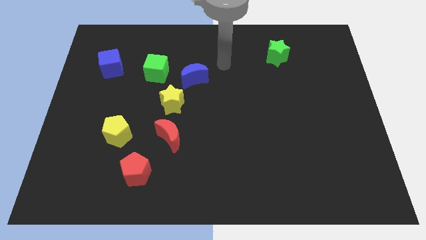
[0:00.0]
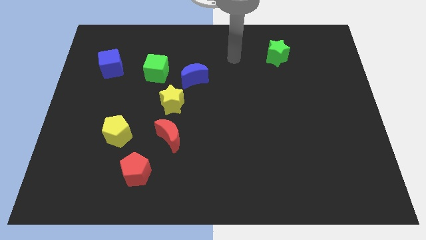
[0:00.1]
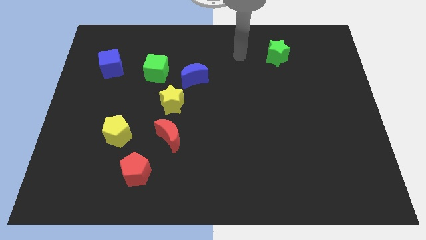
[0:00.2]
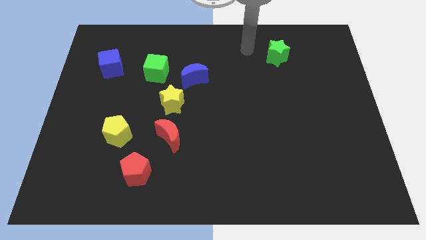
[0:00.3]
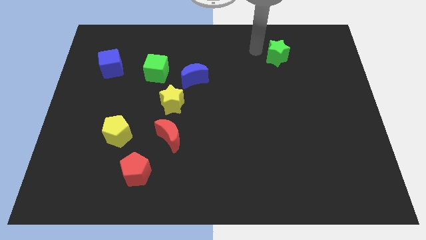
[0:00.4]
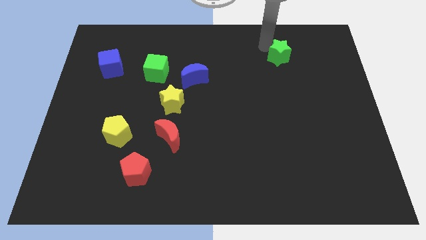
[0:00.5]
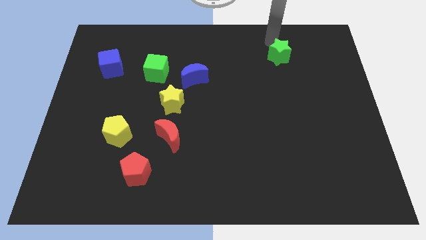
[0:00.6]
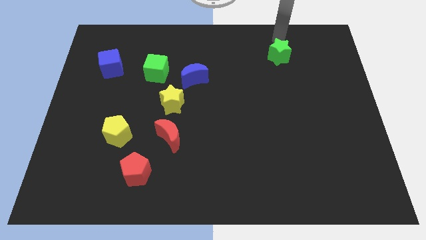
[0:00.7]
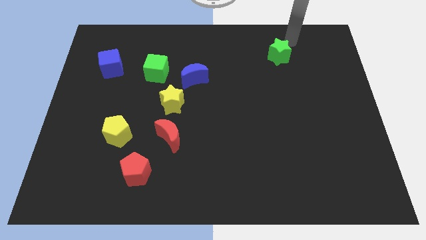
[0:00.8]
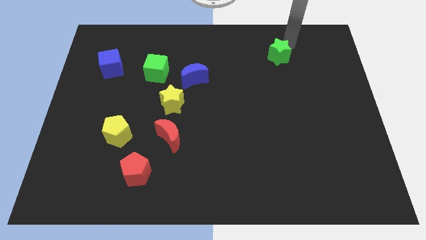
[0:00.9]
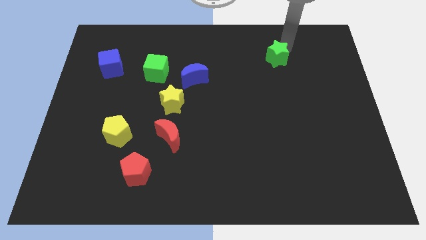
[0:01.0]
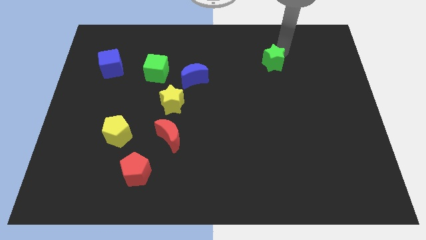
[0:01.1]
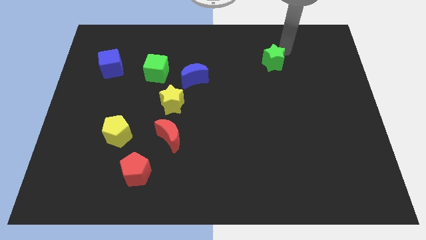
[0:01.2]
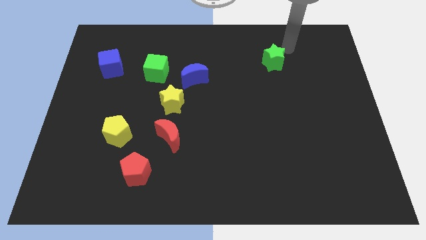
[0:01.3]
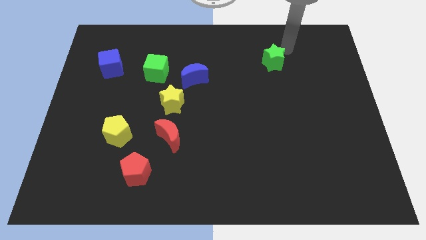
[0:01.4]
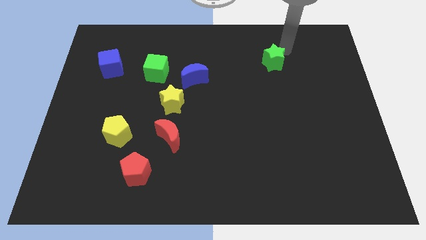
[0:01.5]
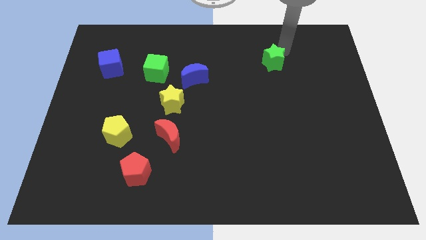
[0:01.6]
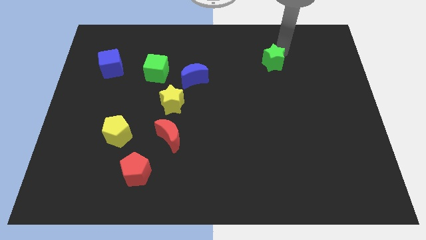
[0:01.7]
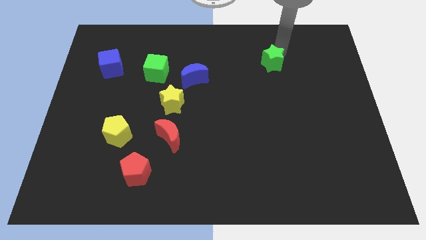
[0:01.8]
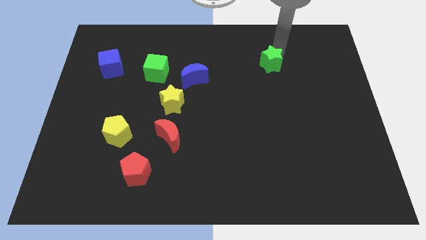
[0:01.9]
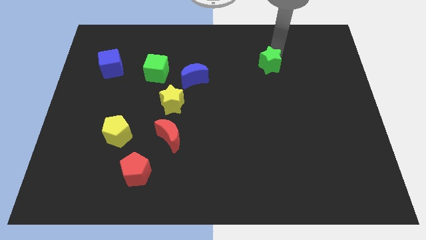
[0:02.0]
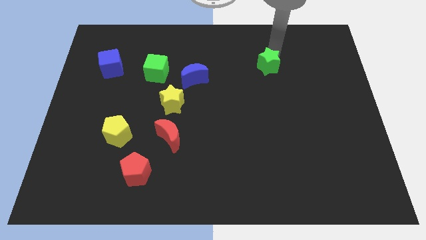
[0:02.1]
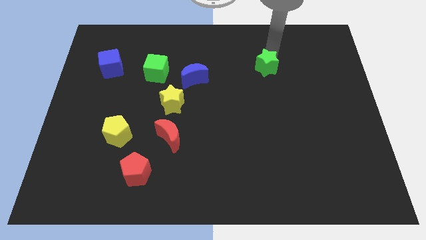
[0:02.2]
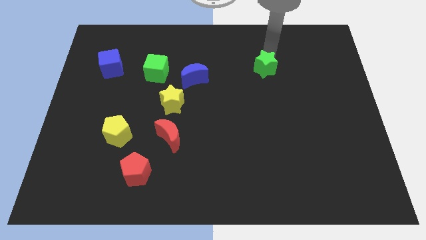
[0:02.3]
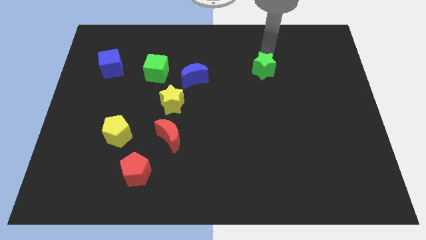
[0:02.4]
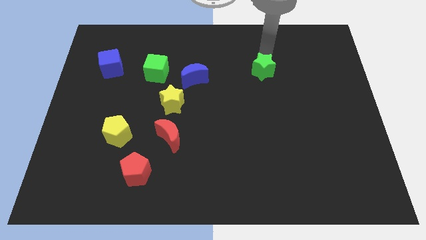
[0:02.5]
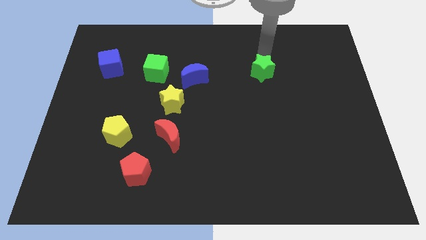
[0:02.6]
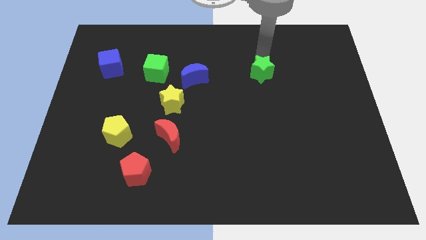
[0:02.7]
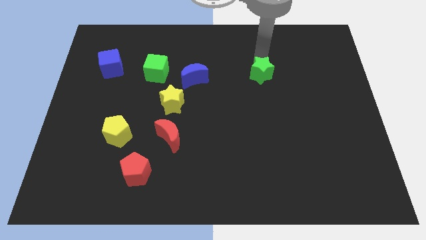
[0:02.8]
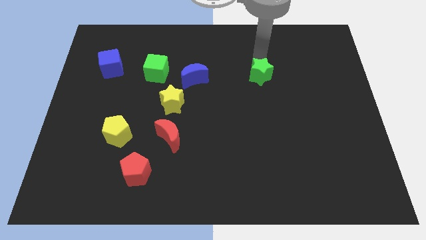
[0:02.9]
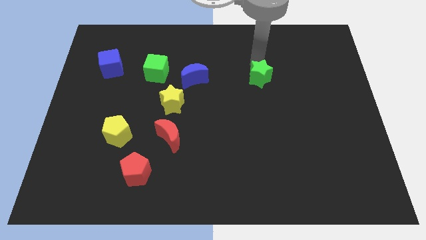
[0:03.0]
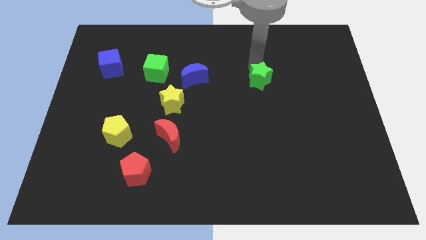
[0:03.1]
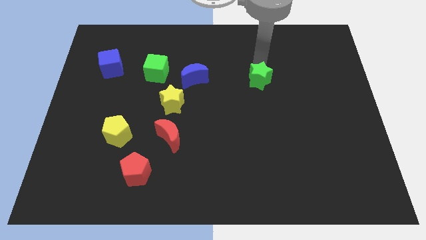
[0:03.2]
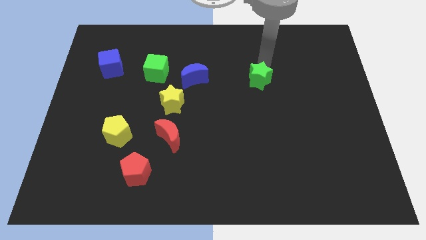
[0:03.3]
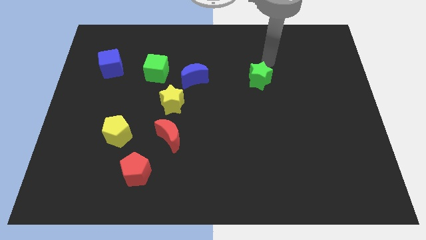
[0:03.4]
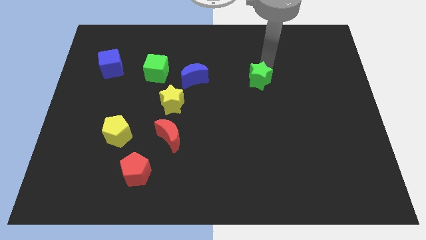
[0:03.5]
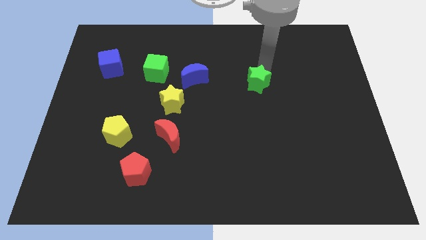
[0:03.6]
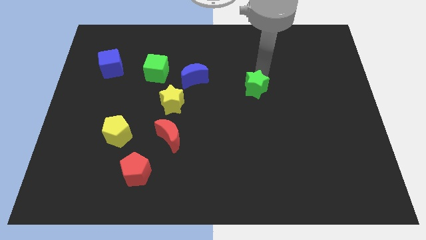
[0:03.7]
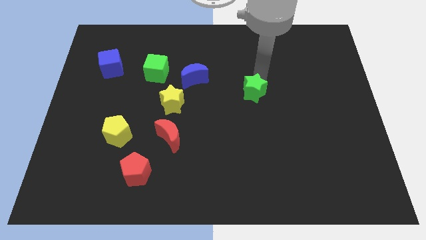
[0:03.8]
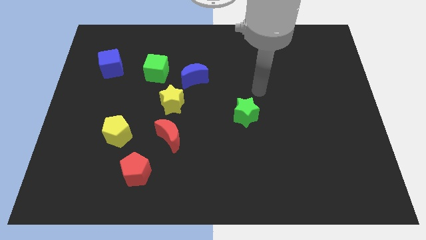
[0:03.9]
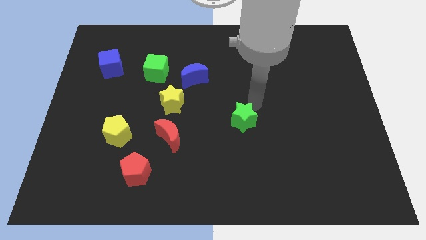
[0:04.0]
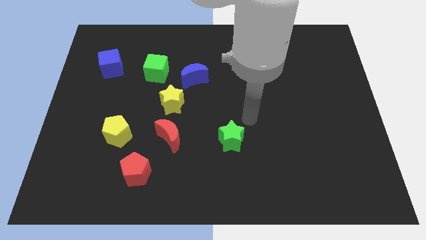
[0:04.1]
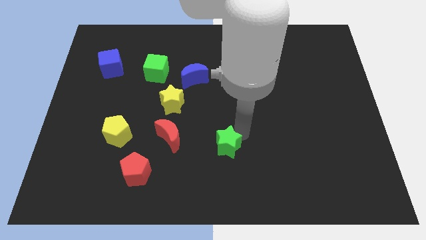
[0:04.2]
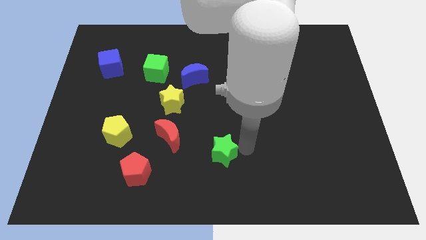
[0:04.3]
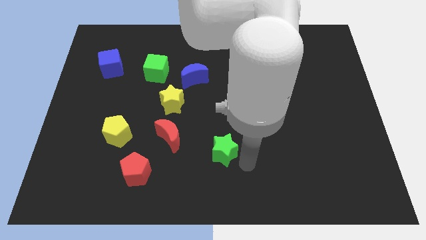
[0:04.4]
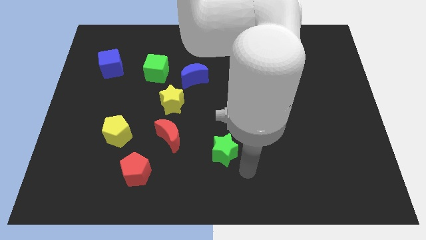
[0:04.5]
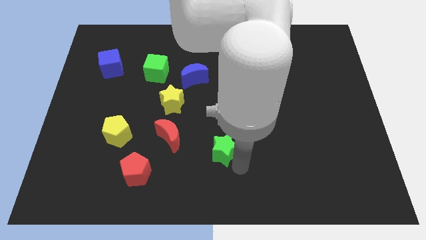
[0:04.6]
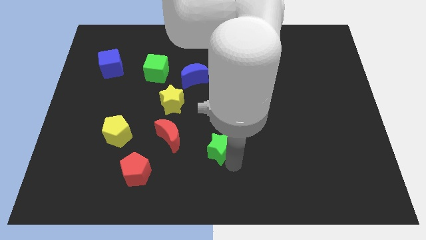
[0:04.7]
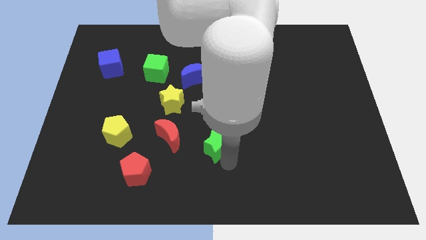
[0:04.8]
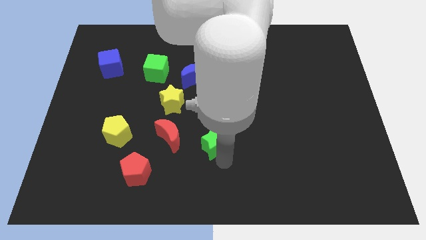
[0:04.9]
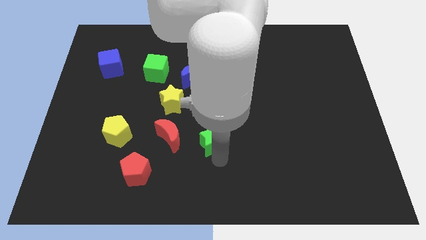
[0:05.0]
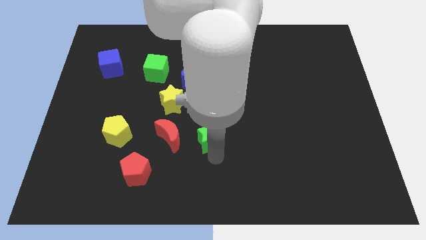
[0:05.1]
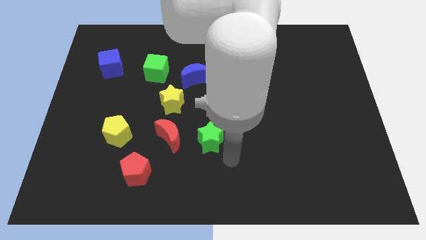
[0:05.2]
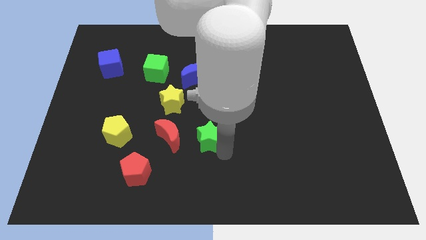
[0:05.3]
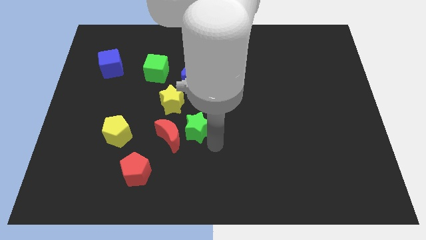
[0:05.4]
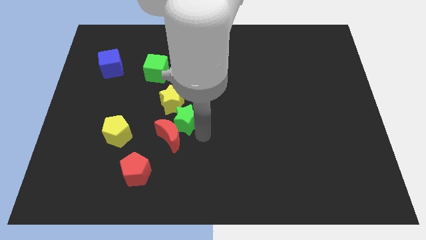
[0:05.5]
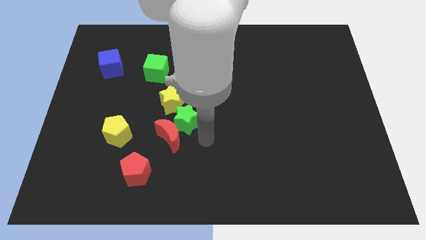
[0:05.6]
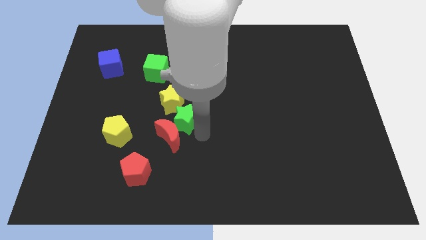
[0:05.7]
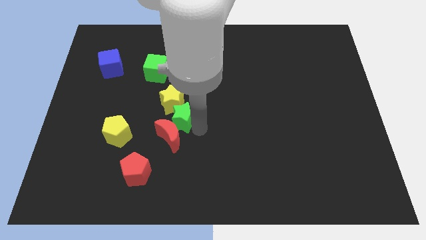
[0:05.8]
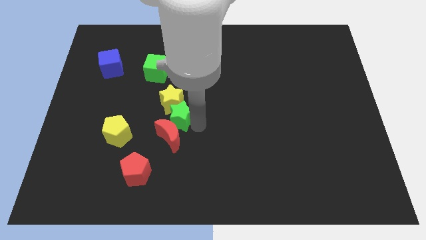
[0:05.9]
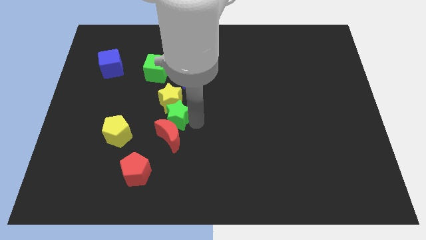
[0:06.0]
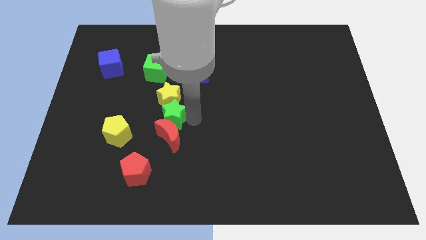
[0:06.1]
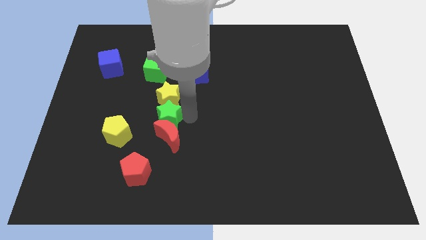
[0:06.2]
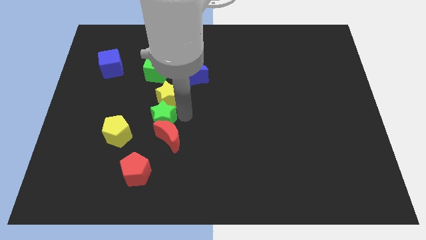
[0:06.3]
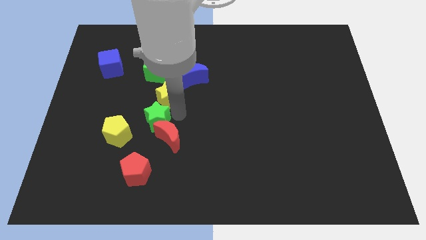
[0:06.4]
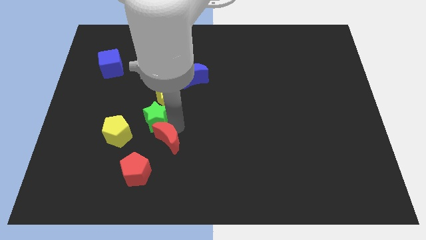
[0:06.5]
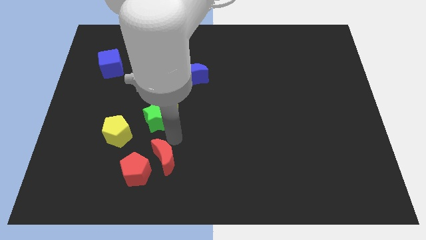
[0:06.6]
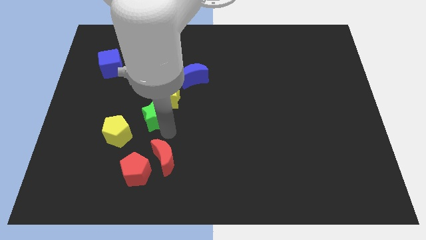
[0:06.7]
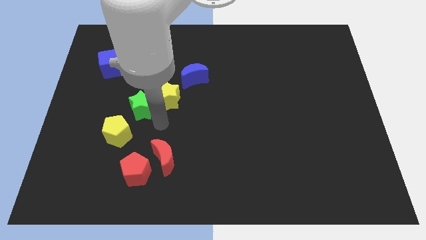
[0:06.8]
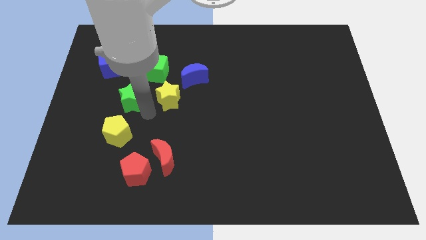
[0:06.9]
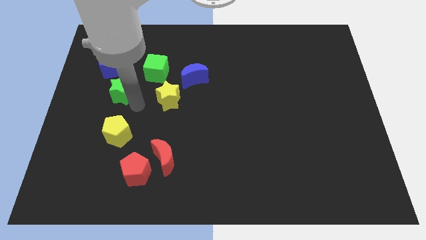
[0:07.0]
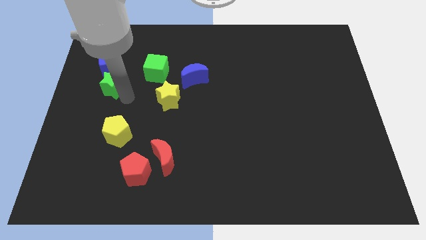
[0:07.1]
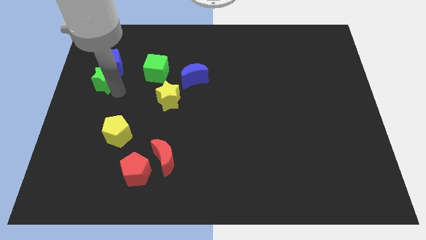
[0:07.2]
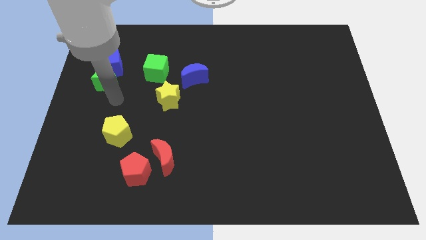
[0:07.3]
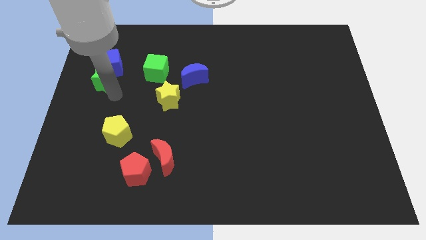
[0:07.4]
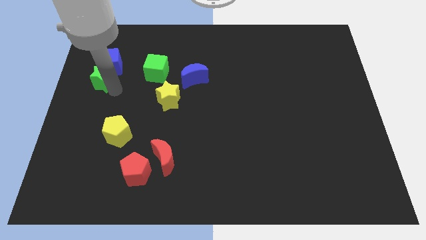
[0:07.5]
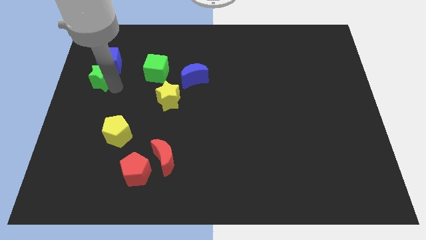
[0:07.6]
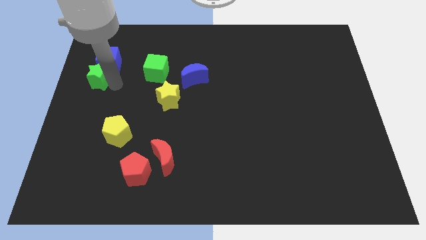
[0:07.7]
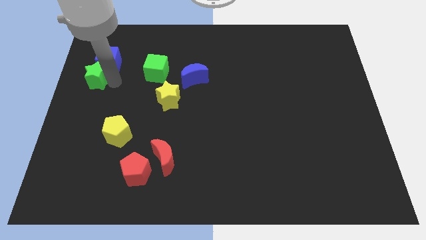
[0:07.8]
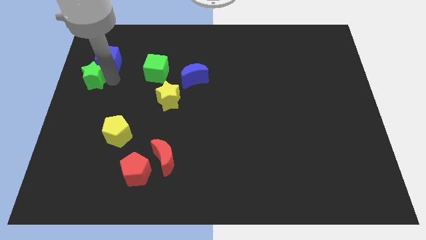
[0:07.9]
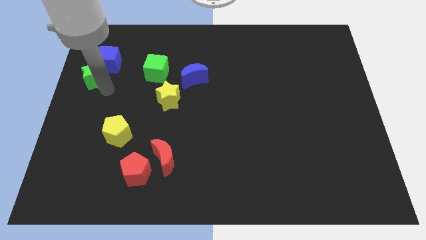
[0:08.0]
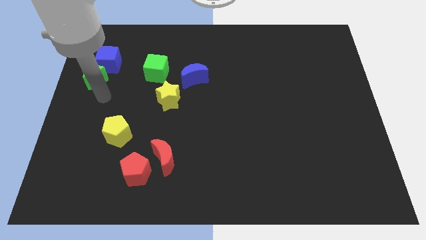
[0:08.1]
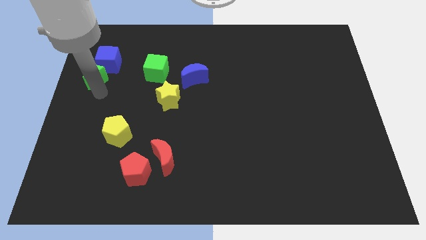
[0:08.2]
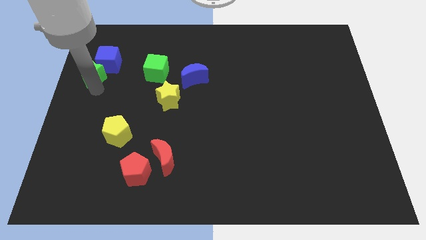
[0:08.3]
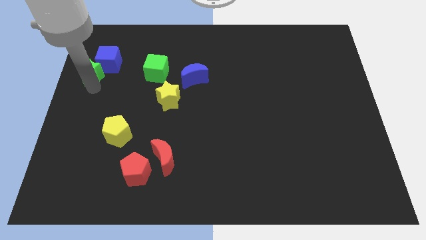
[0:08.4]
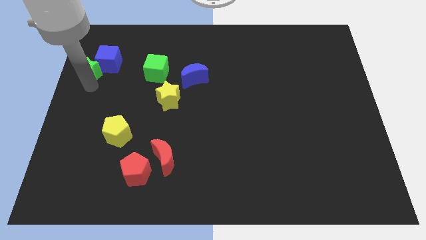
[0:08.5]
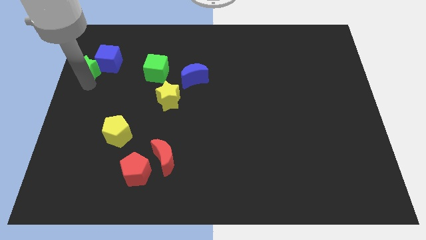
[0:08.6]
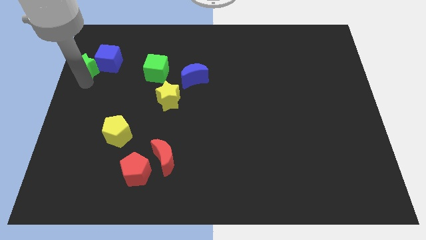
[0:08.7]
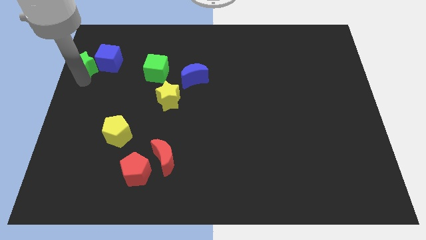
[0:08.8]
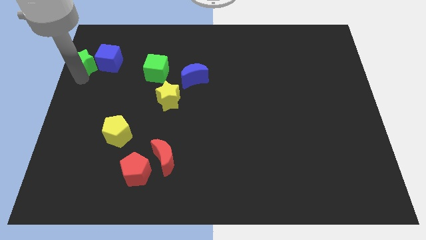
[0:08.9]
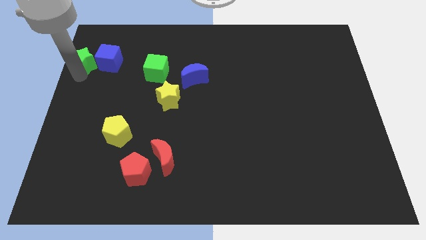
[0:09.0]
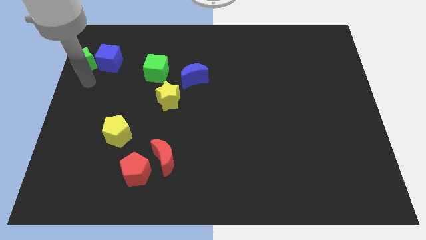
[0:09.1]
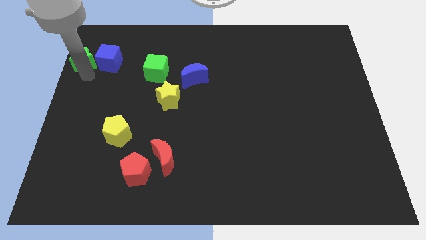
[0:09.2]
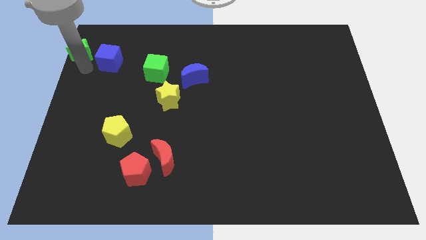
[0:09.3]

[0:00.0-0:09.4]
put the green star to the top left of the board
